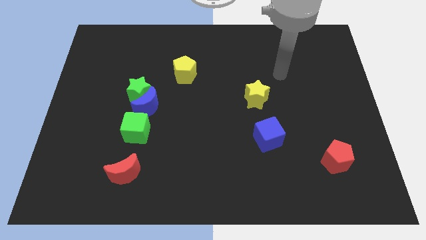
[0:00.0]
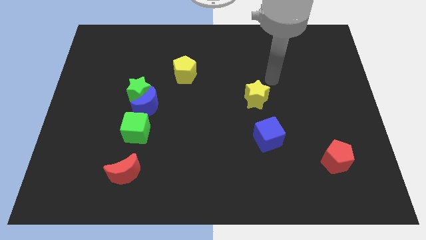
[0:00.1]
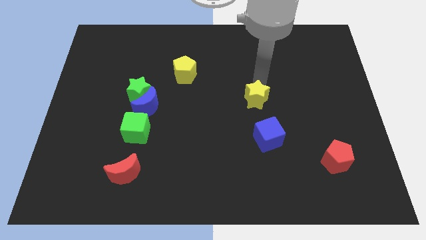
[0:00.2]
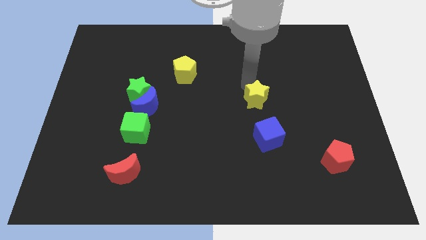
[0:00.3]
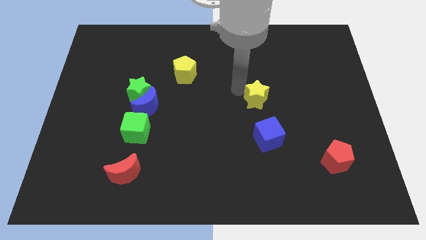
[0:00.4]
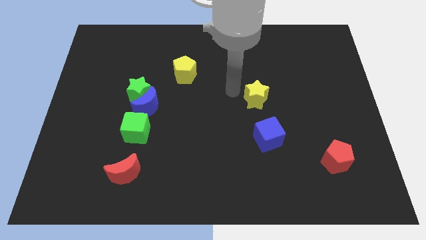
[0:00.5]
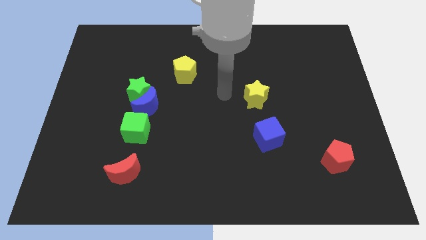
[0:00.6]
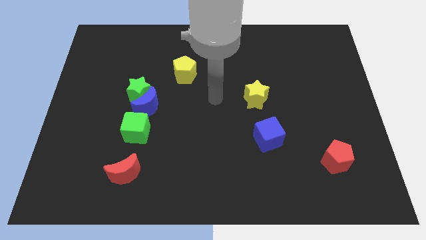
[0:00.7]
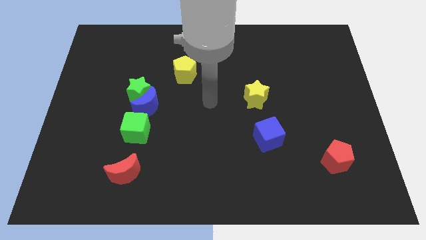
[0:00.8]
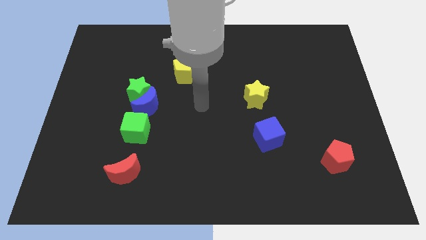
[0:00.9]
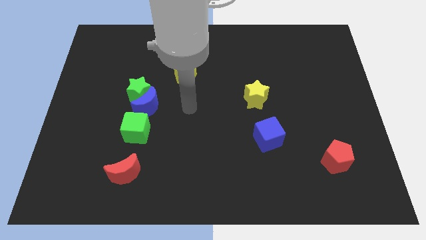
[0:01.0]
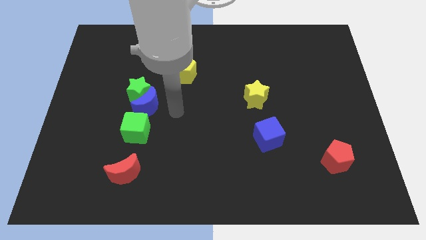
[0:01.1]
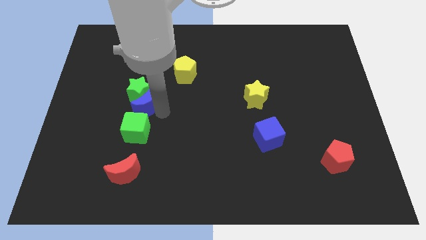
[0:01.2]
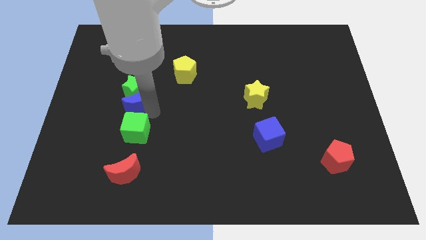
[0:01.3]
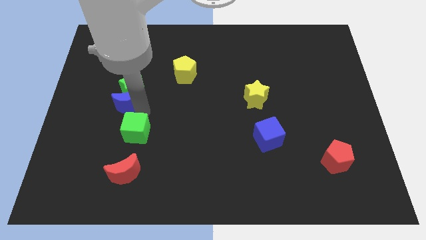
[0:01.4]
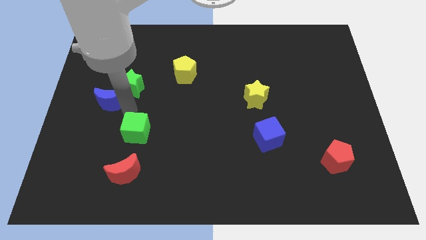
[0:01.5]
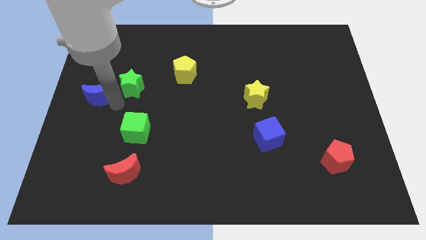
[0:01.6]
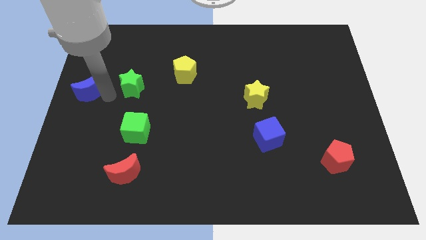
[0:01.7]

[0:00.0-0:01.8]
pull the green star apart from the blue moon

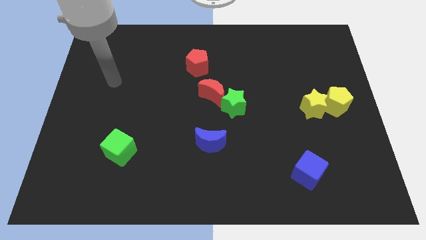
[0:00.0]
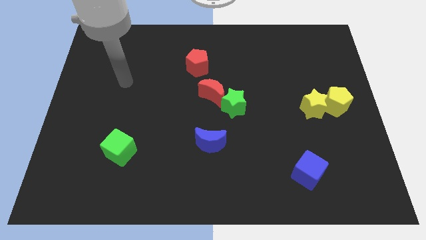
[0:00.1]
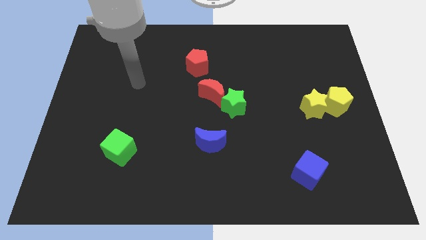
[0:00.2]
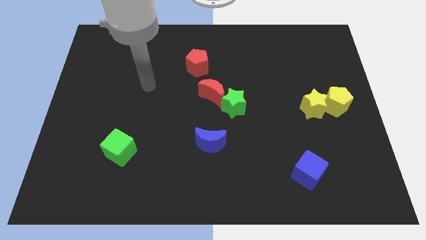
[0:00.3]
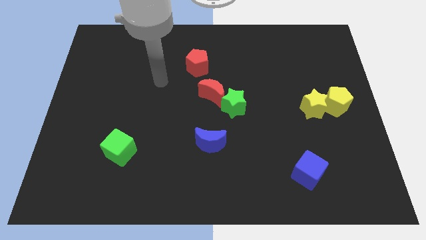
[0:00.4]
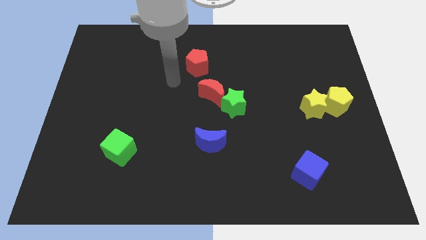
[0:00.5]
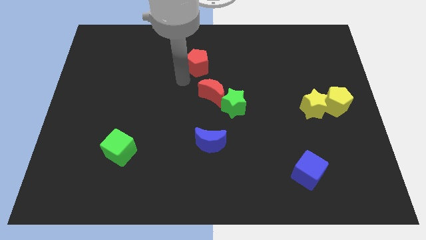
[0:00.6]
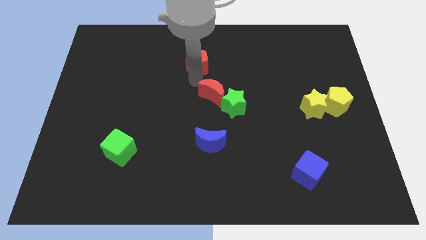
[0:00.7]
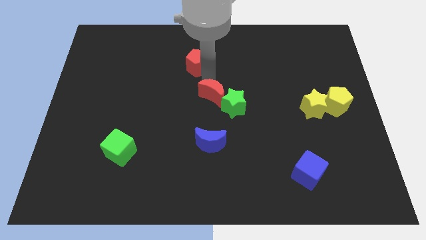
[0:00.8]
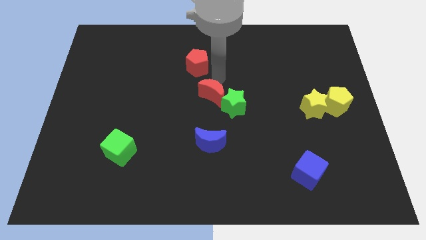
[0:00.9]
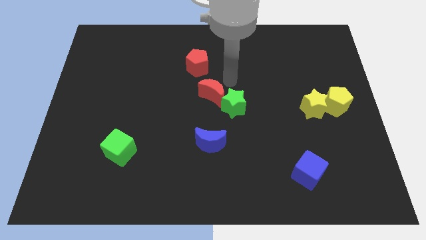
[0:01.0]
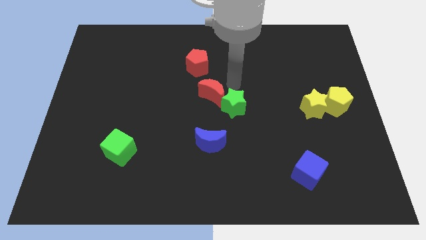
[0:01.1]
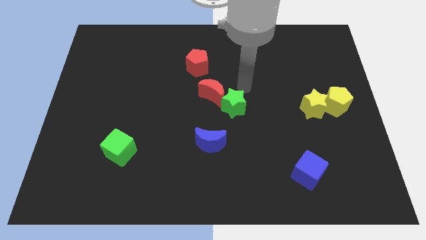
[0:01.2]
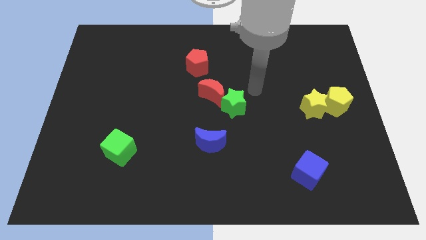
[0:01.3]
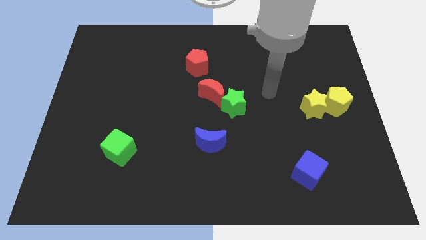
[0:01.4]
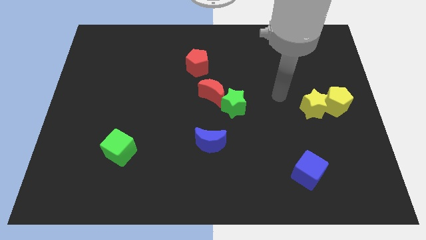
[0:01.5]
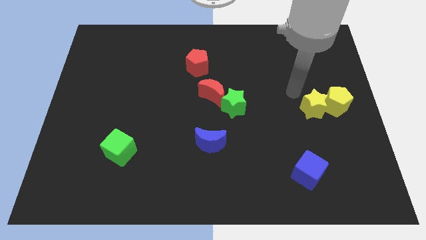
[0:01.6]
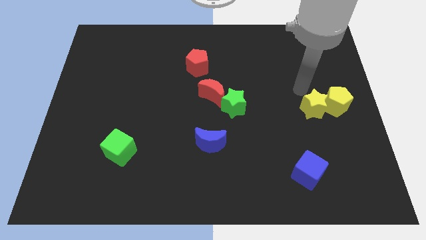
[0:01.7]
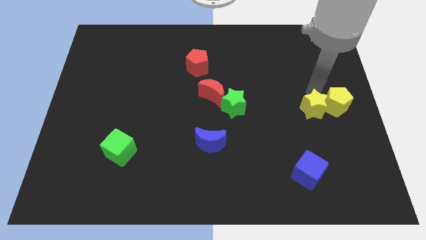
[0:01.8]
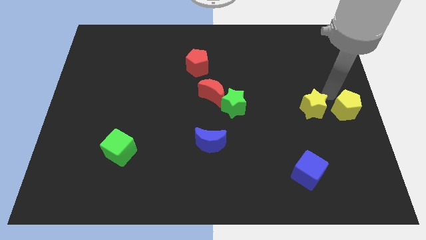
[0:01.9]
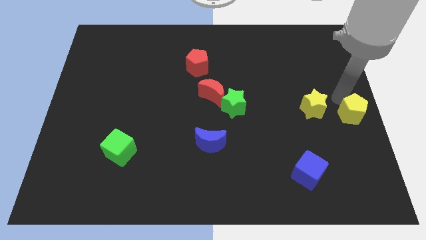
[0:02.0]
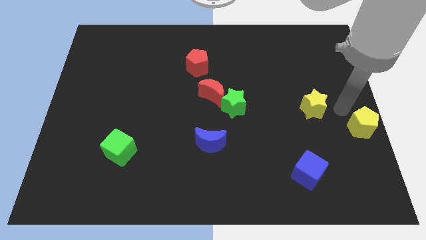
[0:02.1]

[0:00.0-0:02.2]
pull the yellow star apart from the yellow pentagon

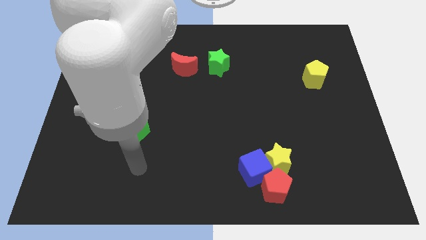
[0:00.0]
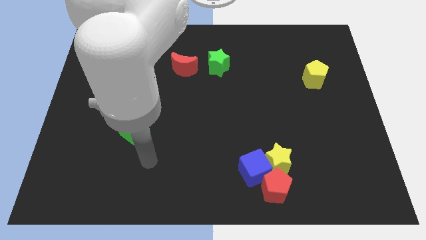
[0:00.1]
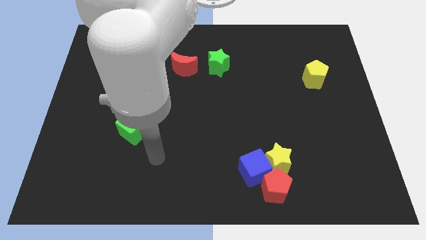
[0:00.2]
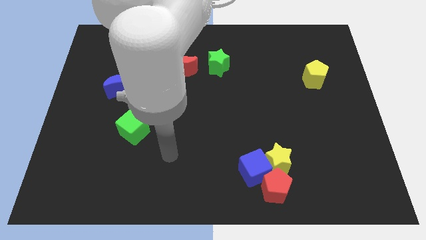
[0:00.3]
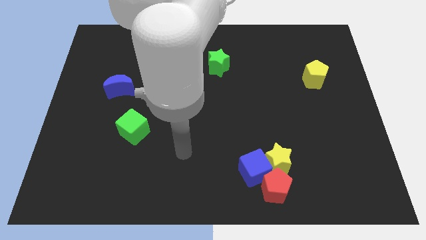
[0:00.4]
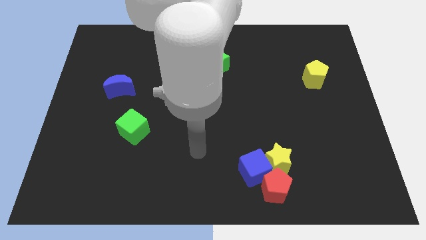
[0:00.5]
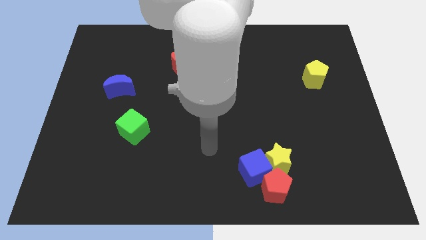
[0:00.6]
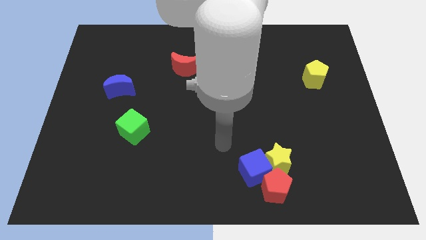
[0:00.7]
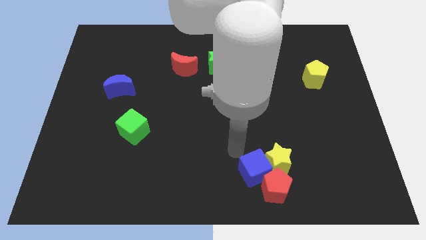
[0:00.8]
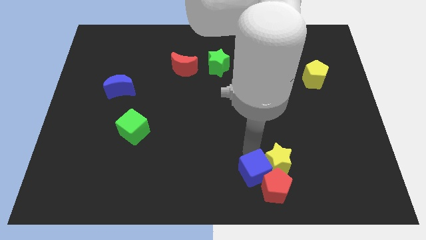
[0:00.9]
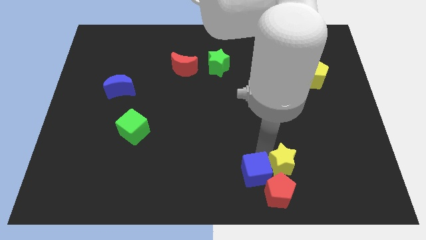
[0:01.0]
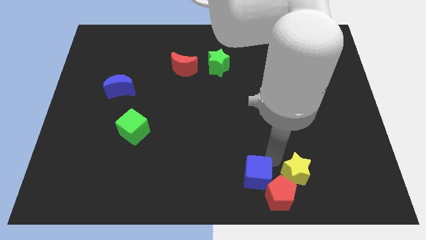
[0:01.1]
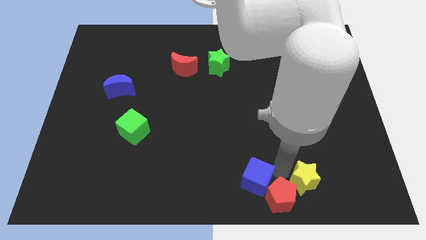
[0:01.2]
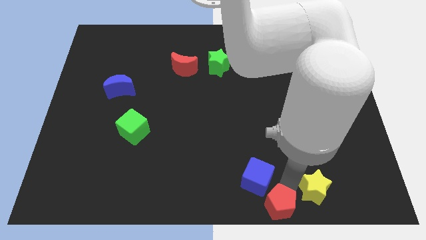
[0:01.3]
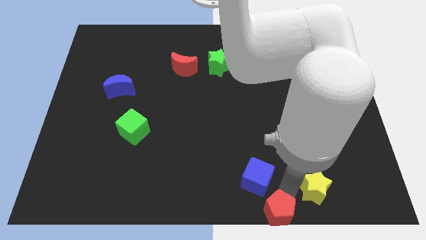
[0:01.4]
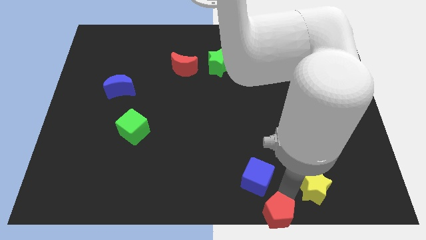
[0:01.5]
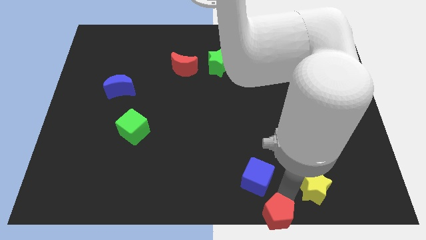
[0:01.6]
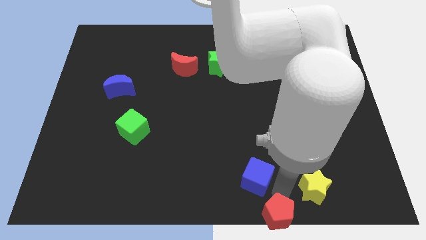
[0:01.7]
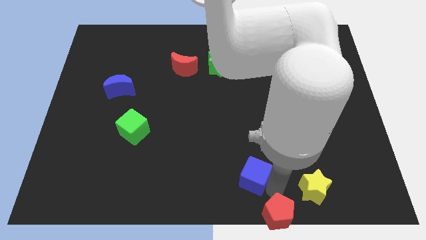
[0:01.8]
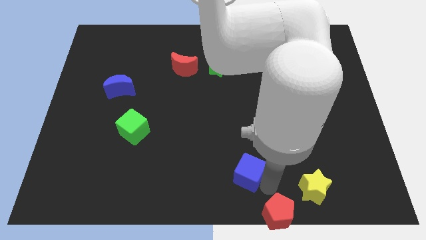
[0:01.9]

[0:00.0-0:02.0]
move the blue cube away from the yellow star and red pentagon

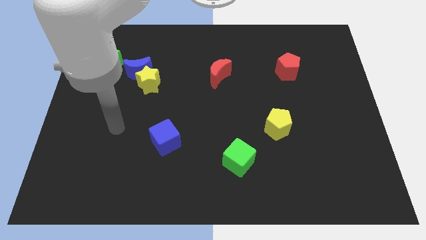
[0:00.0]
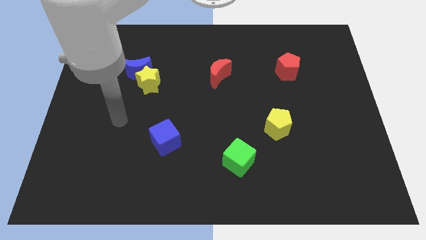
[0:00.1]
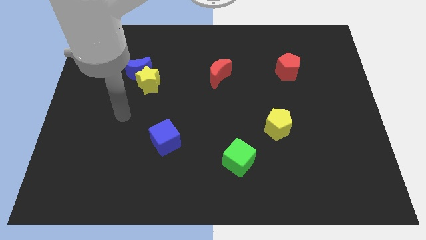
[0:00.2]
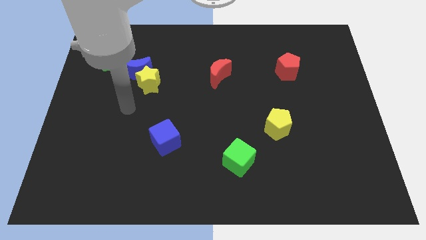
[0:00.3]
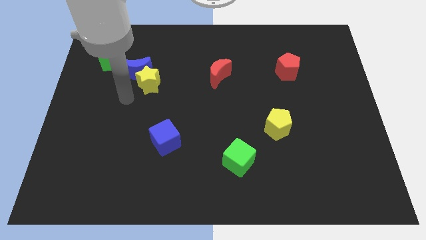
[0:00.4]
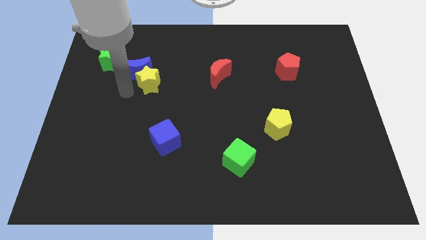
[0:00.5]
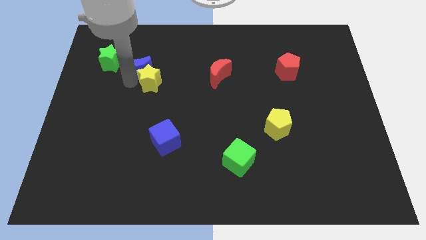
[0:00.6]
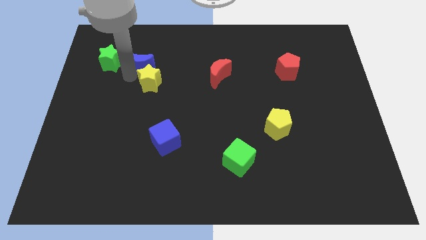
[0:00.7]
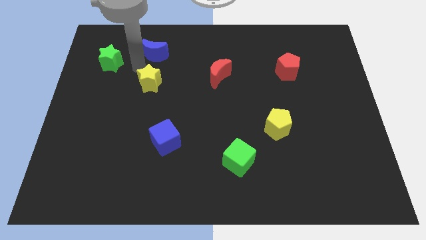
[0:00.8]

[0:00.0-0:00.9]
separate the yellow star from the blue moon

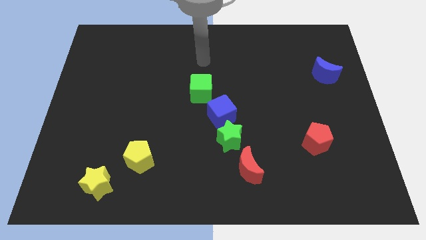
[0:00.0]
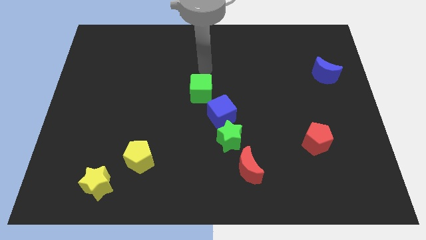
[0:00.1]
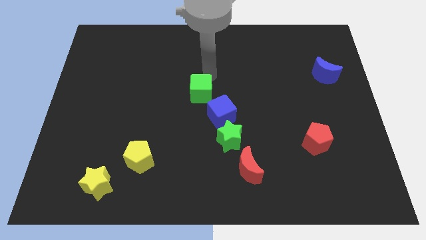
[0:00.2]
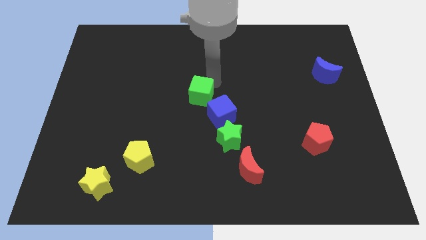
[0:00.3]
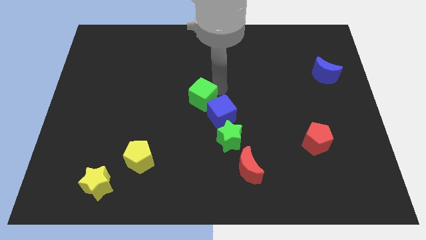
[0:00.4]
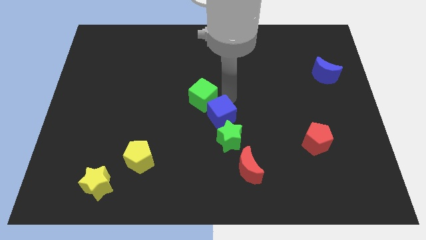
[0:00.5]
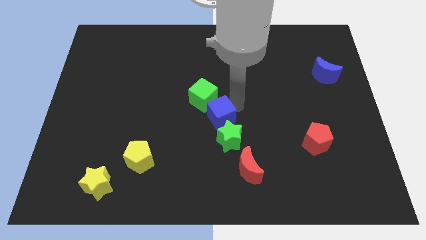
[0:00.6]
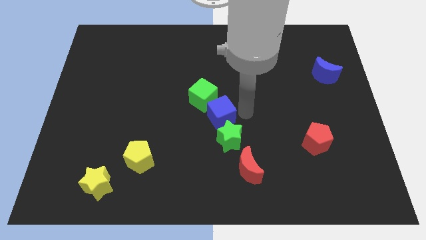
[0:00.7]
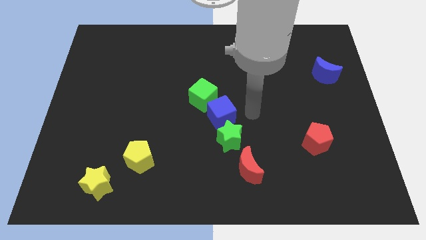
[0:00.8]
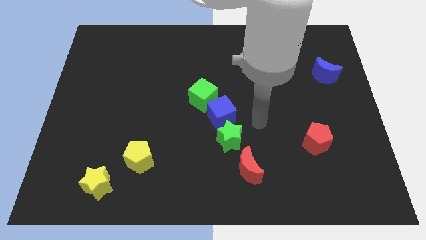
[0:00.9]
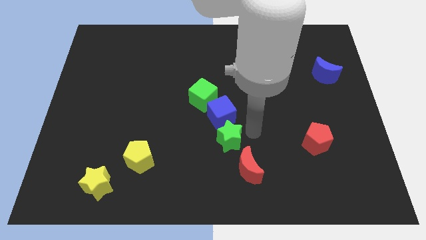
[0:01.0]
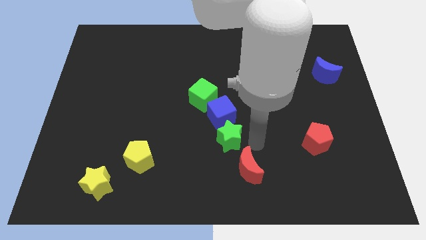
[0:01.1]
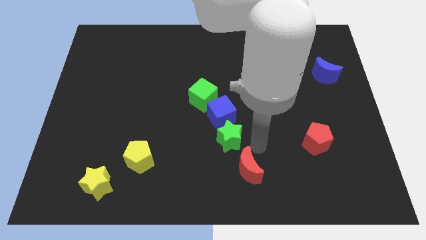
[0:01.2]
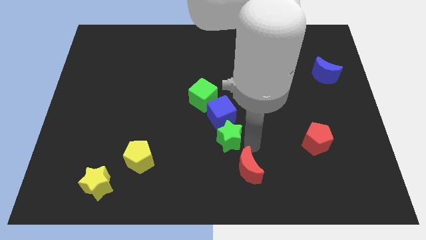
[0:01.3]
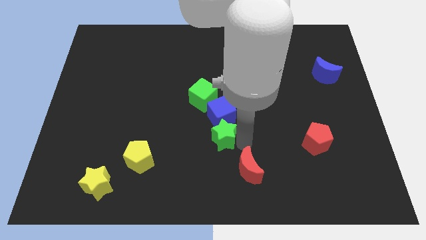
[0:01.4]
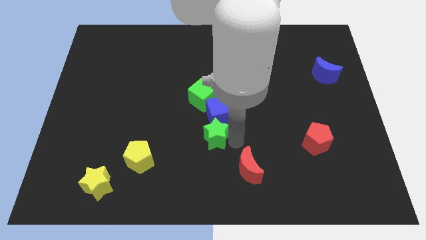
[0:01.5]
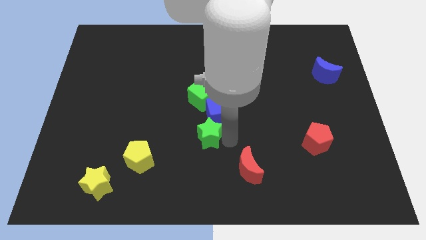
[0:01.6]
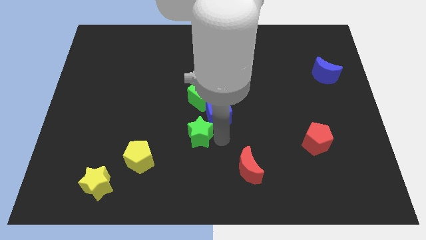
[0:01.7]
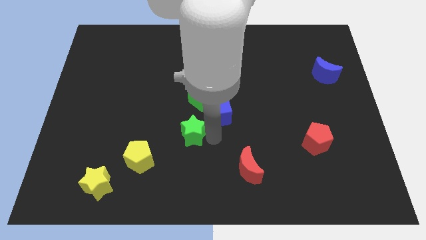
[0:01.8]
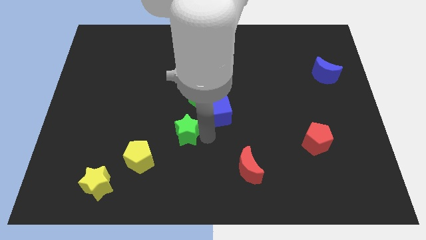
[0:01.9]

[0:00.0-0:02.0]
pull the green star apart from the blue cube and red moon

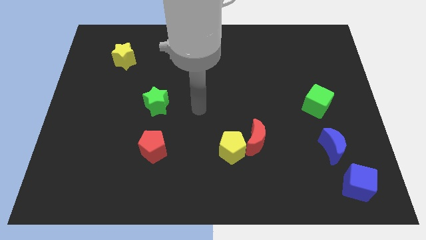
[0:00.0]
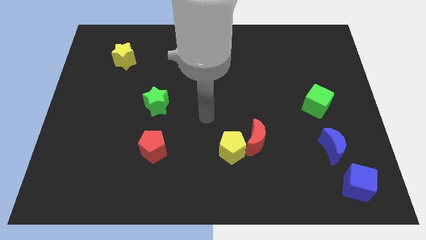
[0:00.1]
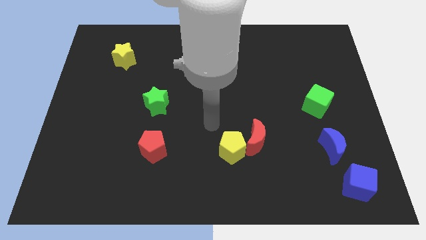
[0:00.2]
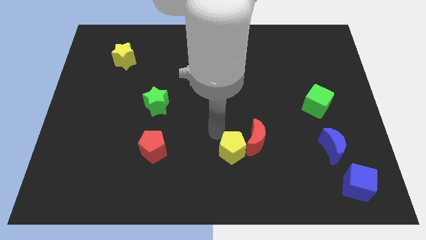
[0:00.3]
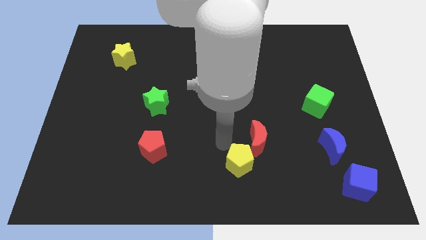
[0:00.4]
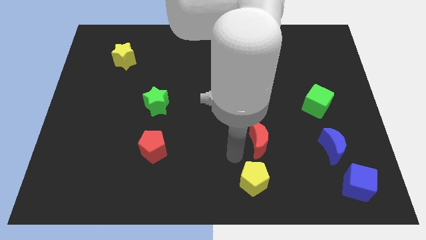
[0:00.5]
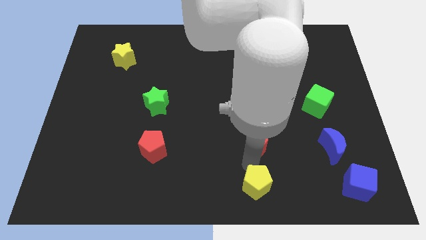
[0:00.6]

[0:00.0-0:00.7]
move the red moon away from the yellow pentagon
